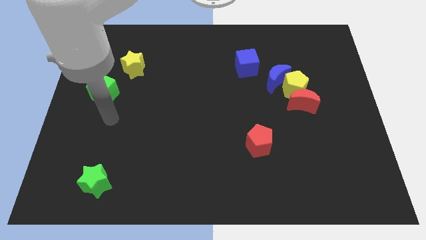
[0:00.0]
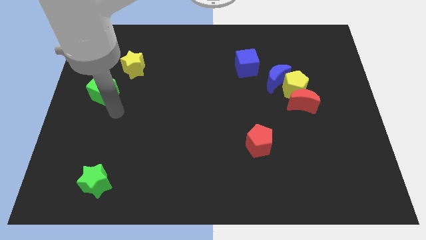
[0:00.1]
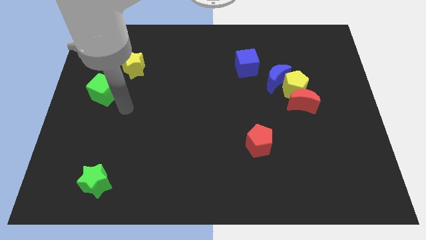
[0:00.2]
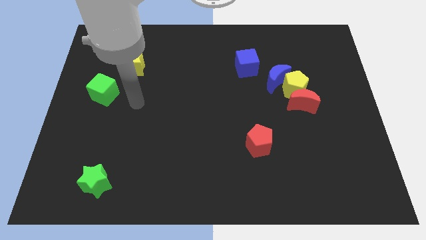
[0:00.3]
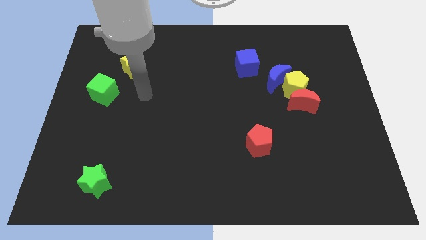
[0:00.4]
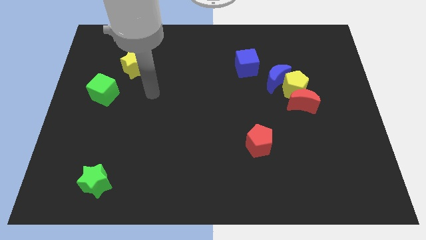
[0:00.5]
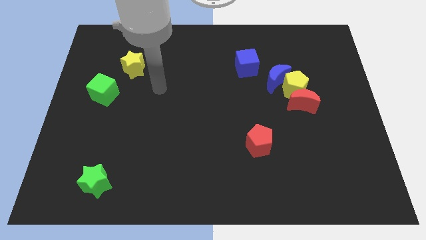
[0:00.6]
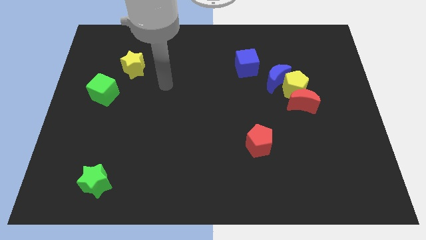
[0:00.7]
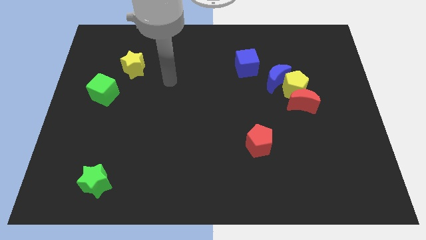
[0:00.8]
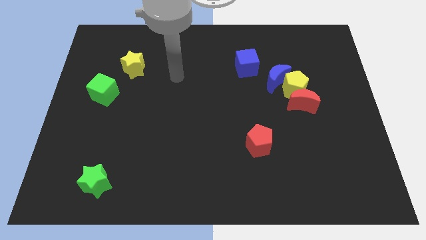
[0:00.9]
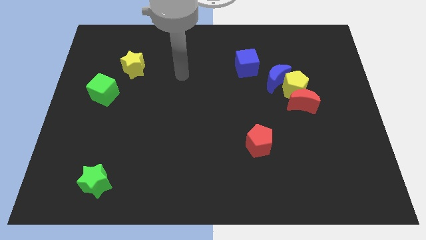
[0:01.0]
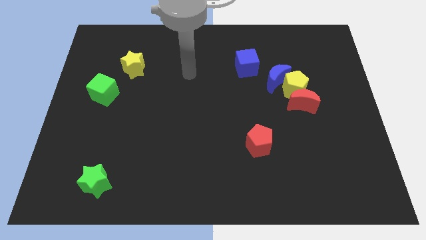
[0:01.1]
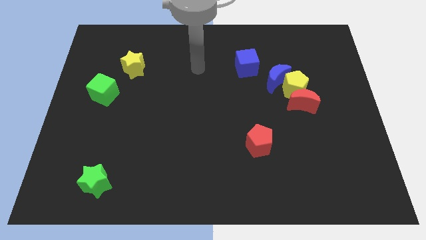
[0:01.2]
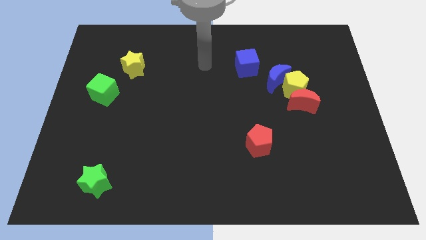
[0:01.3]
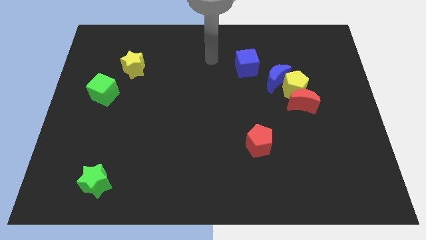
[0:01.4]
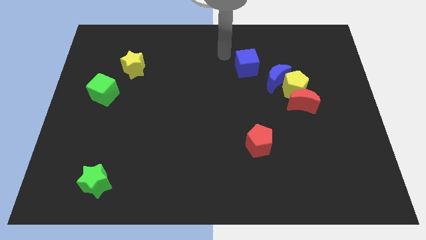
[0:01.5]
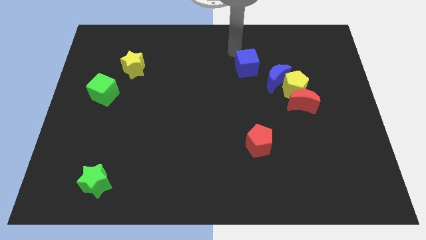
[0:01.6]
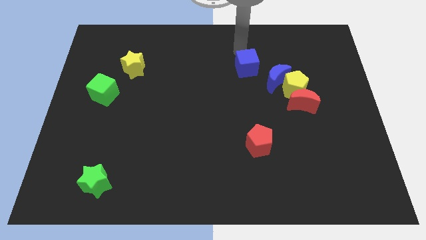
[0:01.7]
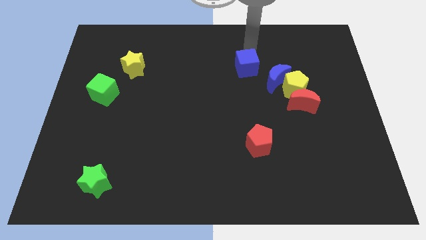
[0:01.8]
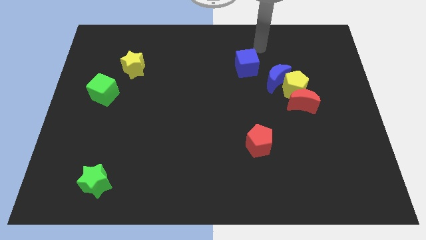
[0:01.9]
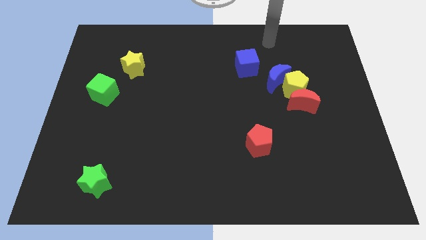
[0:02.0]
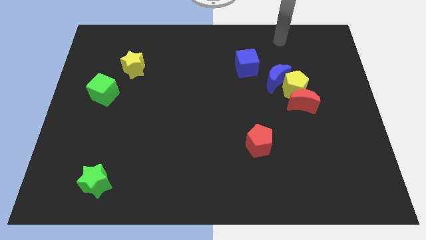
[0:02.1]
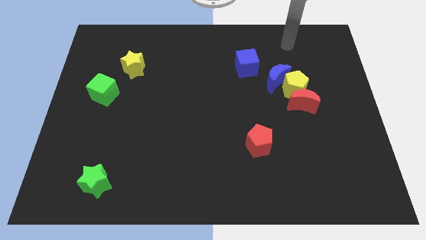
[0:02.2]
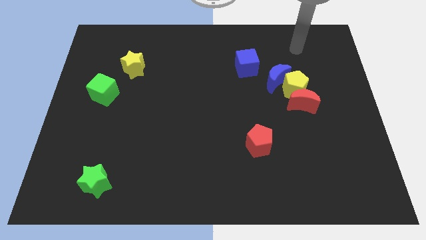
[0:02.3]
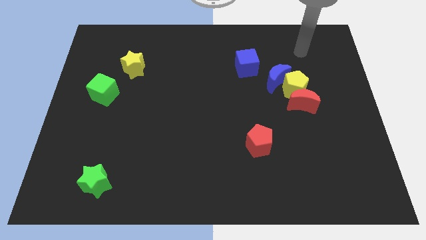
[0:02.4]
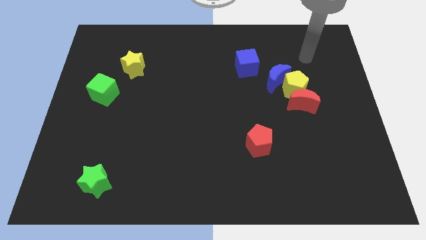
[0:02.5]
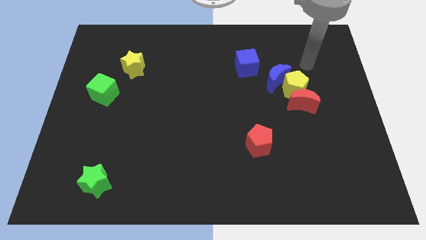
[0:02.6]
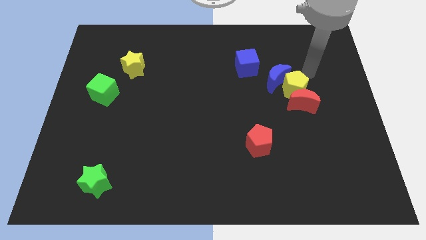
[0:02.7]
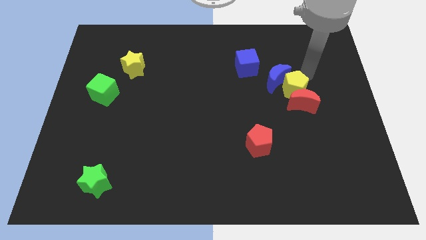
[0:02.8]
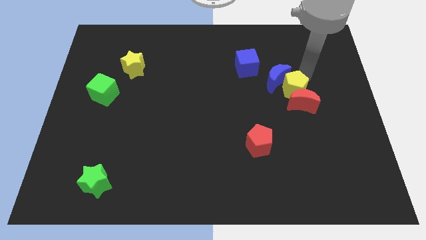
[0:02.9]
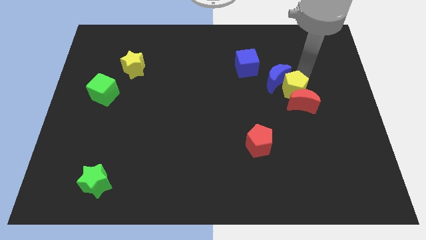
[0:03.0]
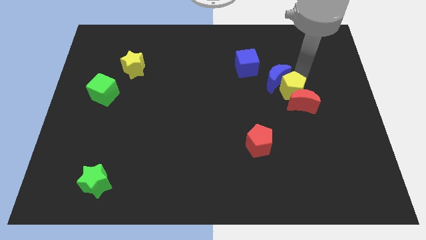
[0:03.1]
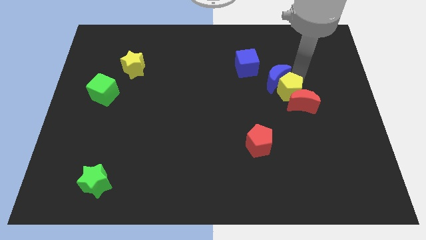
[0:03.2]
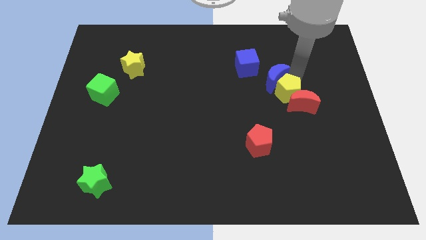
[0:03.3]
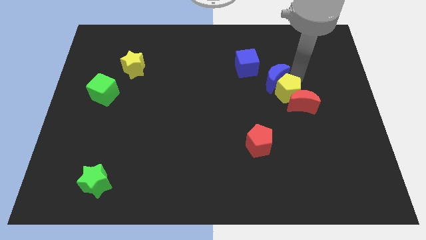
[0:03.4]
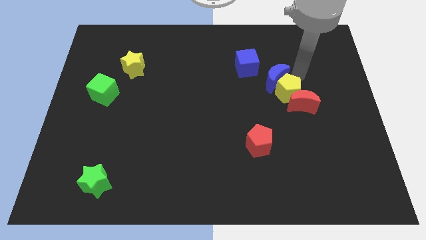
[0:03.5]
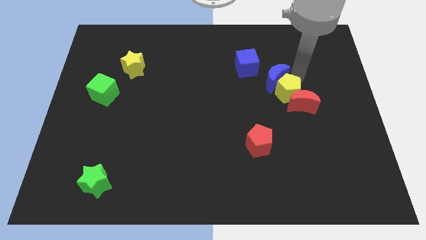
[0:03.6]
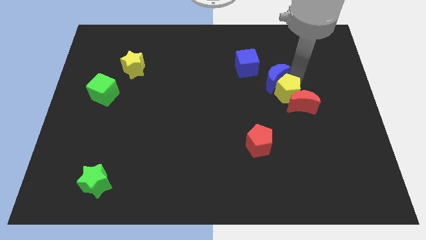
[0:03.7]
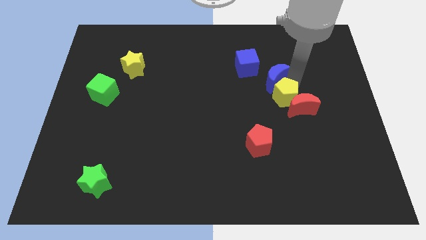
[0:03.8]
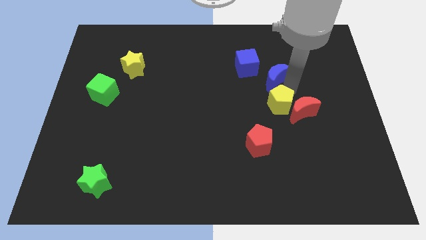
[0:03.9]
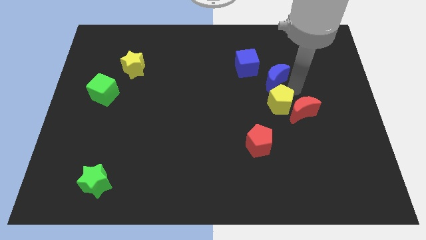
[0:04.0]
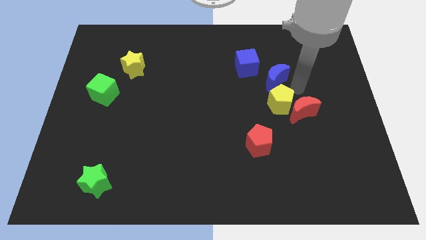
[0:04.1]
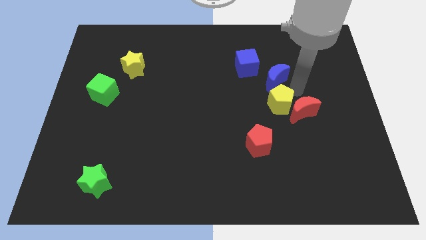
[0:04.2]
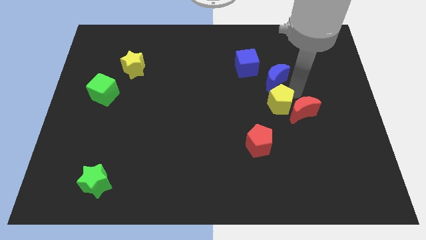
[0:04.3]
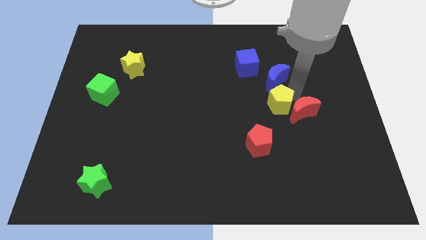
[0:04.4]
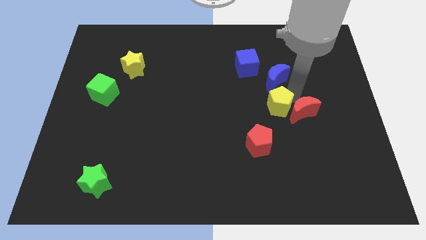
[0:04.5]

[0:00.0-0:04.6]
slide the yellow pentagon somewhat down and then to the left

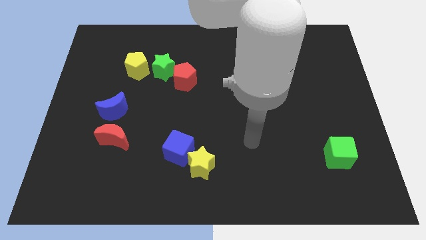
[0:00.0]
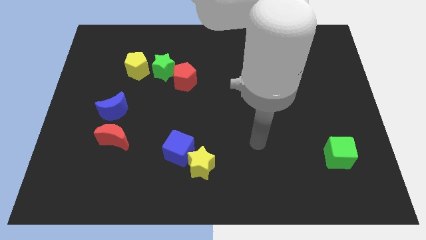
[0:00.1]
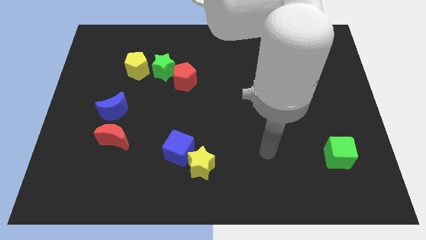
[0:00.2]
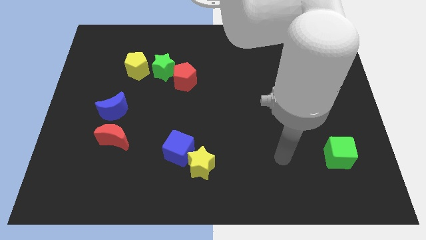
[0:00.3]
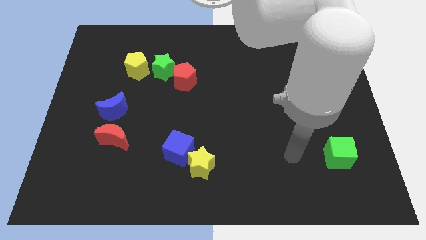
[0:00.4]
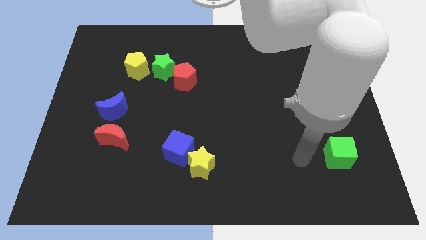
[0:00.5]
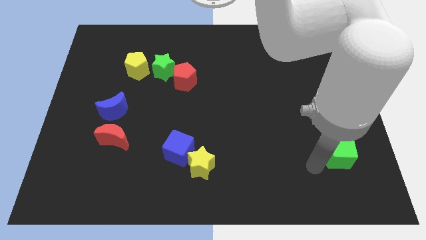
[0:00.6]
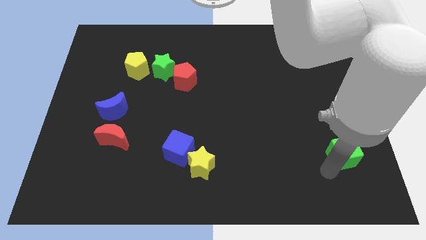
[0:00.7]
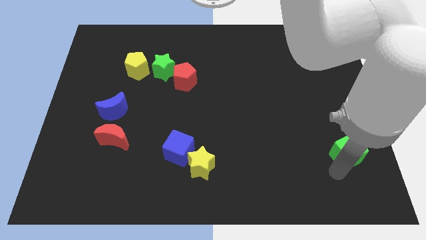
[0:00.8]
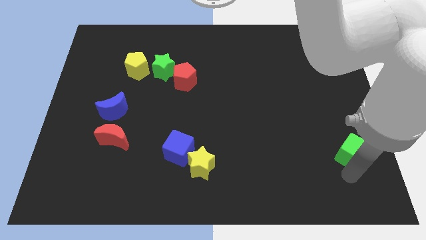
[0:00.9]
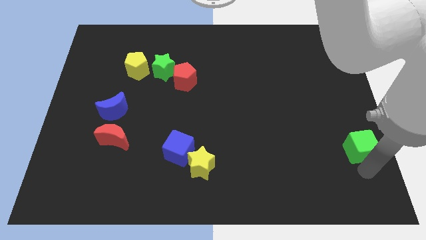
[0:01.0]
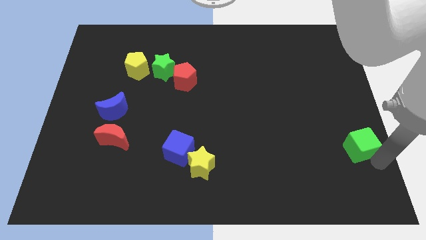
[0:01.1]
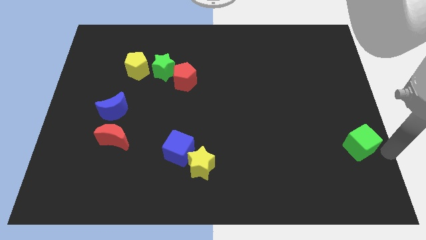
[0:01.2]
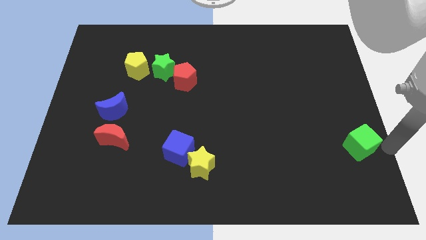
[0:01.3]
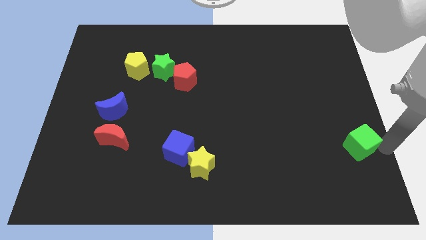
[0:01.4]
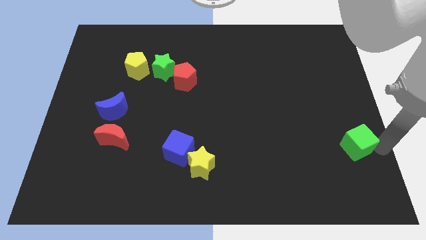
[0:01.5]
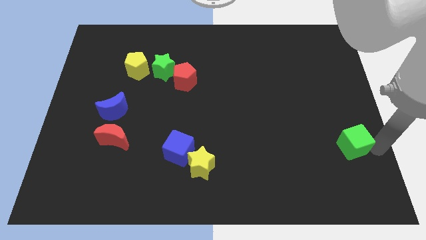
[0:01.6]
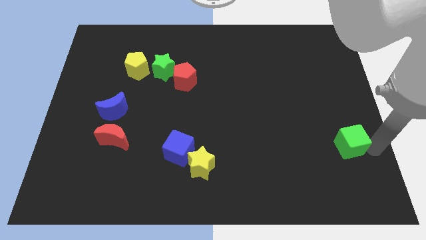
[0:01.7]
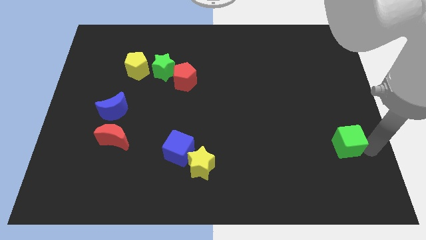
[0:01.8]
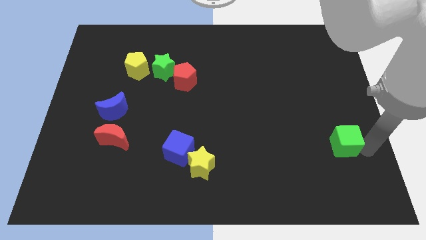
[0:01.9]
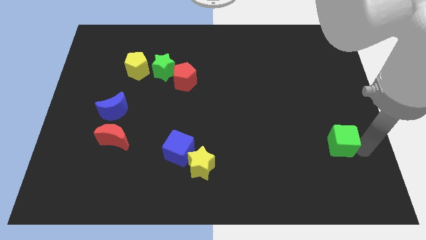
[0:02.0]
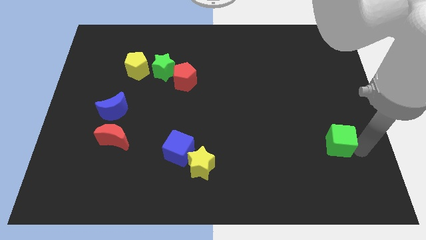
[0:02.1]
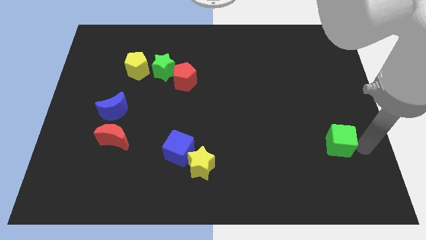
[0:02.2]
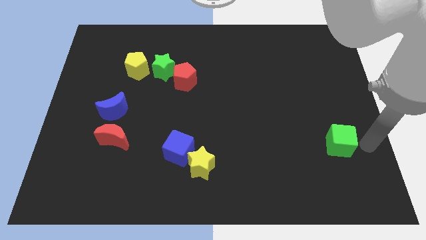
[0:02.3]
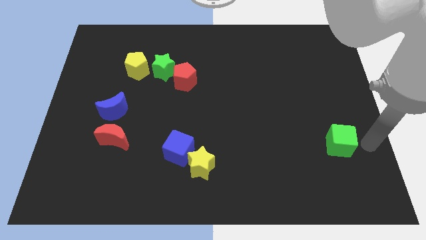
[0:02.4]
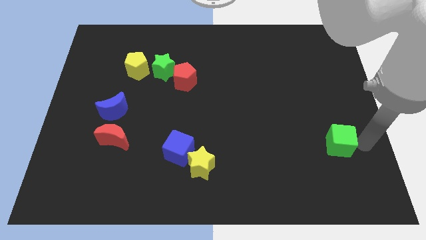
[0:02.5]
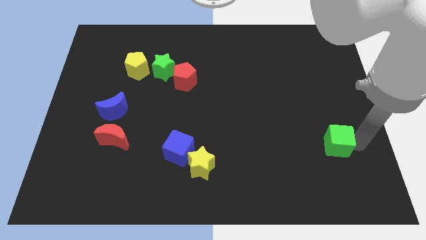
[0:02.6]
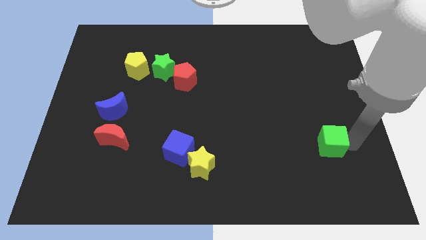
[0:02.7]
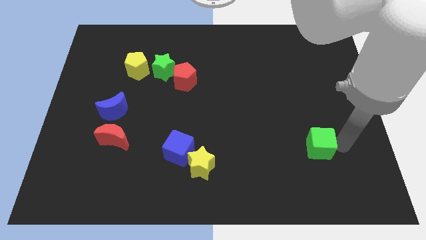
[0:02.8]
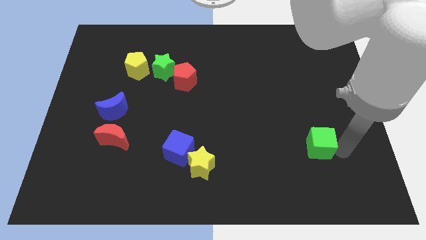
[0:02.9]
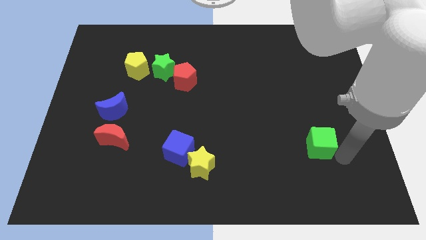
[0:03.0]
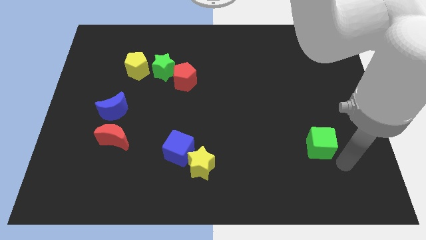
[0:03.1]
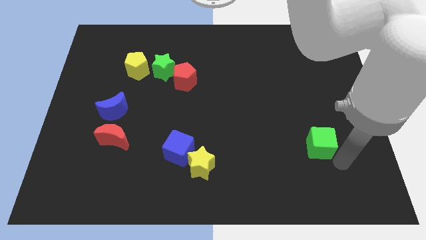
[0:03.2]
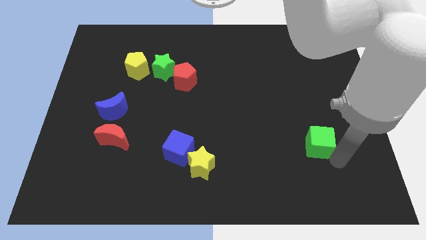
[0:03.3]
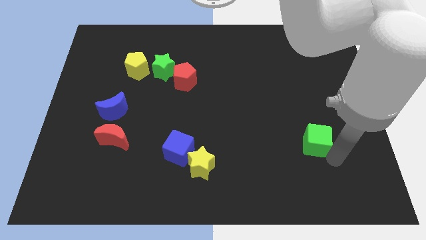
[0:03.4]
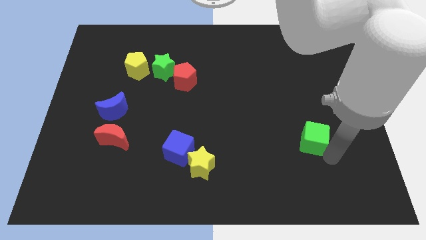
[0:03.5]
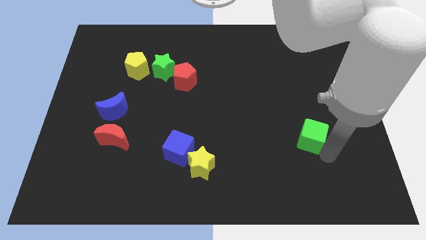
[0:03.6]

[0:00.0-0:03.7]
slide the green cube upwards and to the left a little

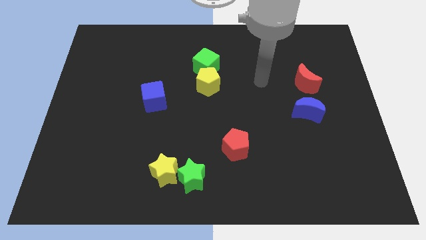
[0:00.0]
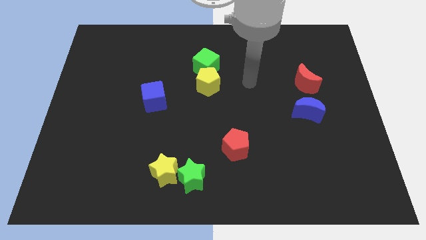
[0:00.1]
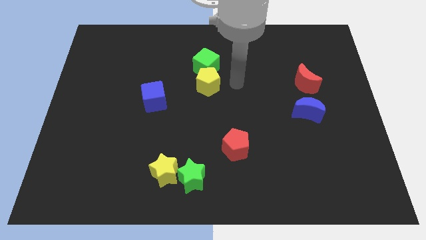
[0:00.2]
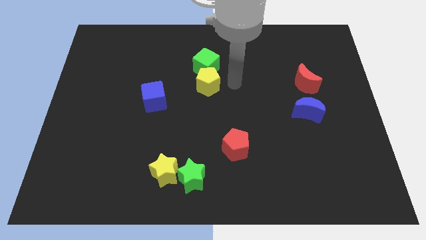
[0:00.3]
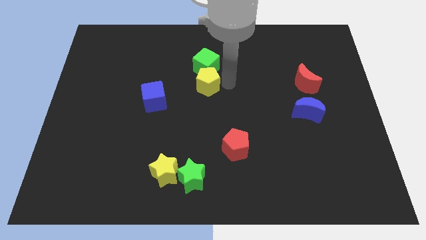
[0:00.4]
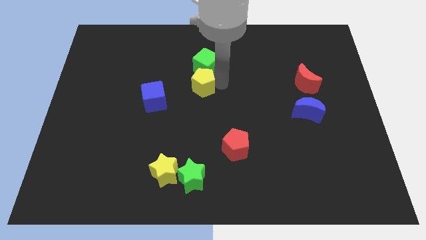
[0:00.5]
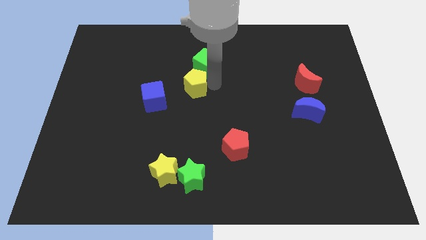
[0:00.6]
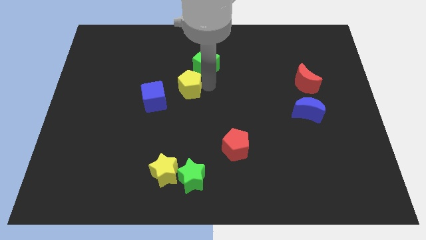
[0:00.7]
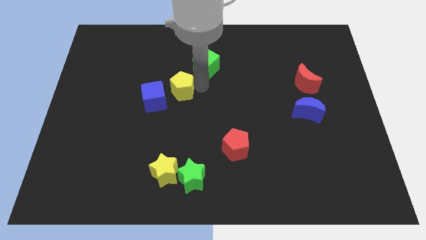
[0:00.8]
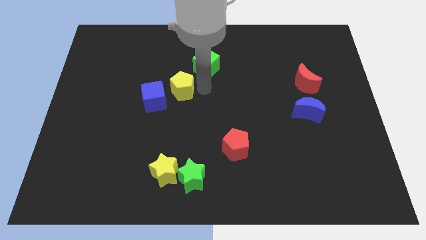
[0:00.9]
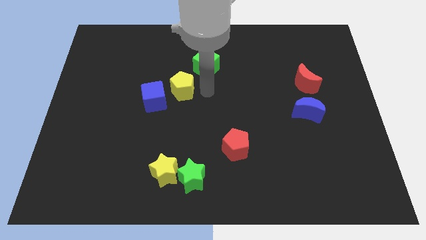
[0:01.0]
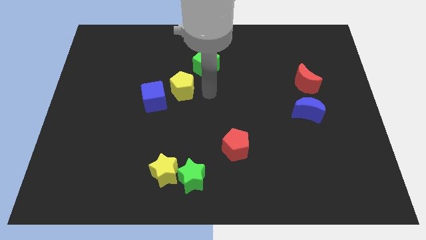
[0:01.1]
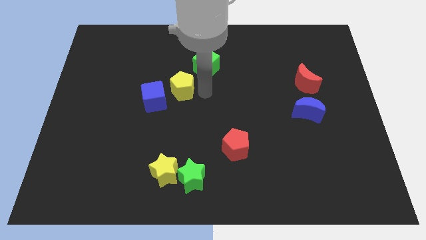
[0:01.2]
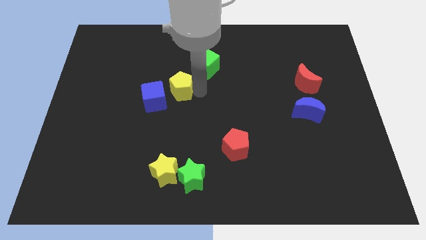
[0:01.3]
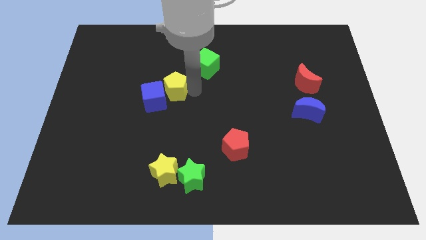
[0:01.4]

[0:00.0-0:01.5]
slightly slide the yellow pentagon to the left
